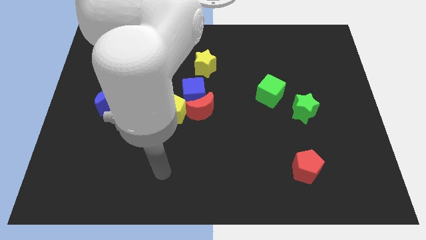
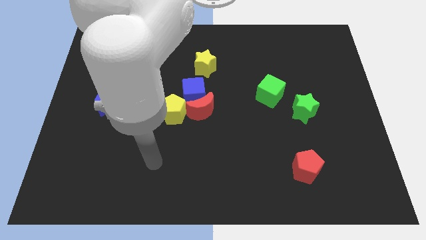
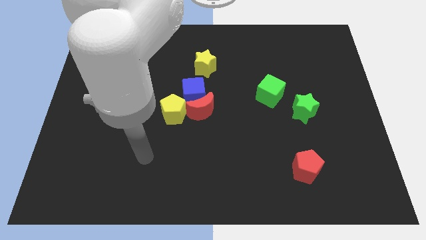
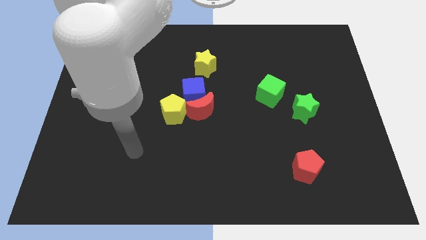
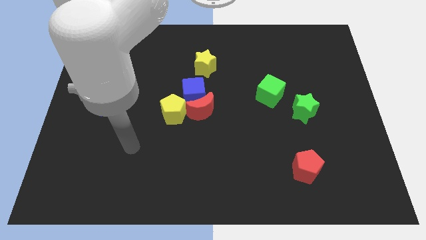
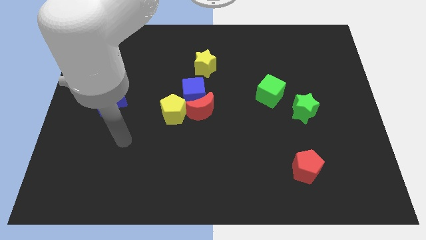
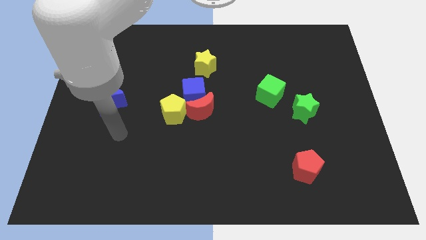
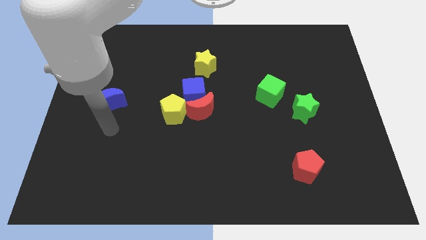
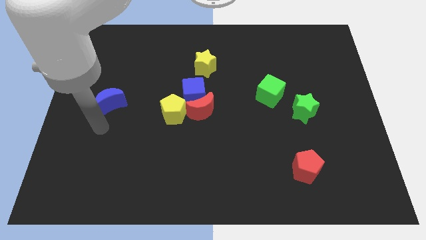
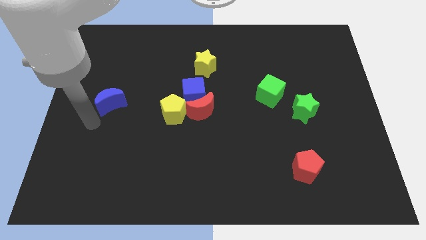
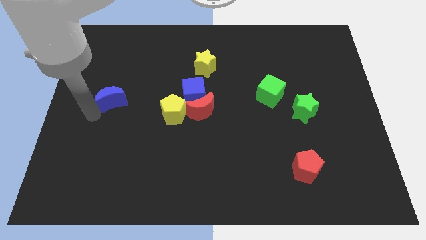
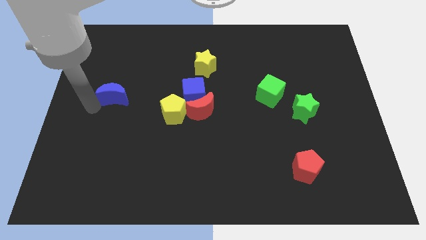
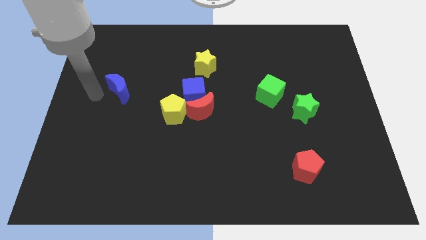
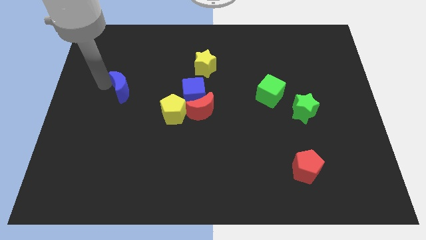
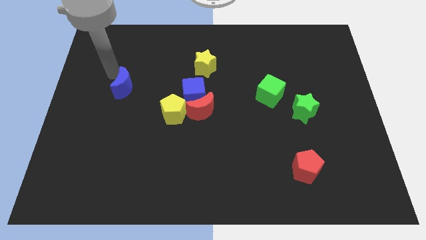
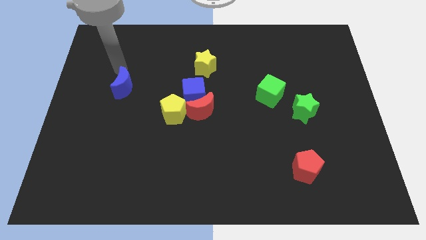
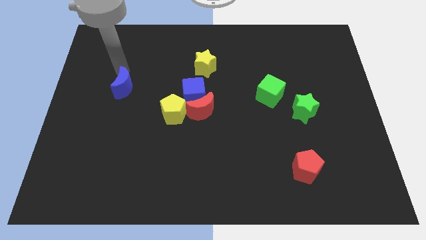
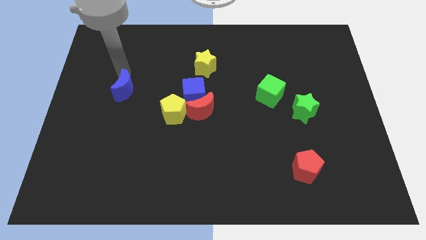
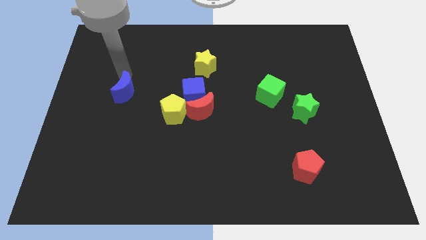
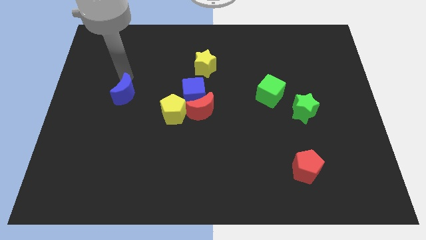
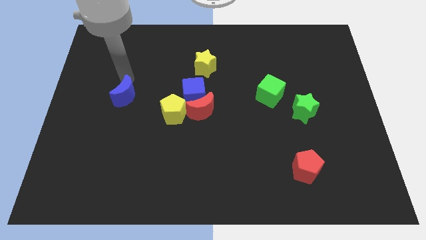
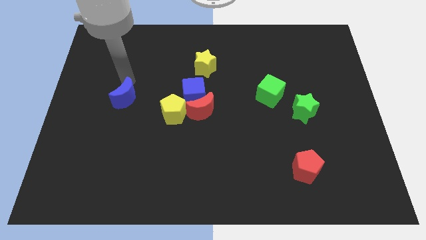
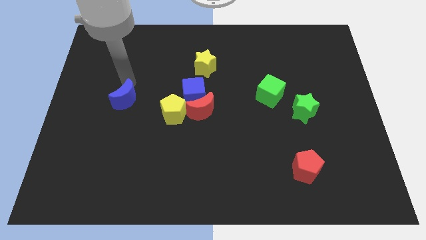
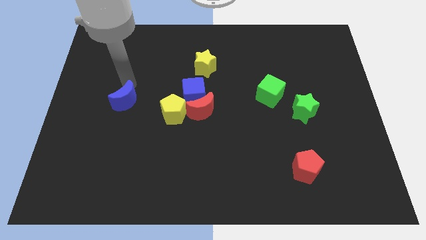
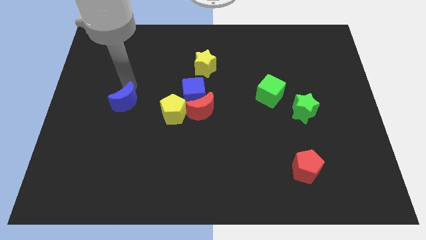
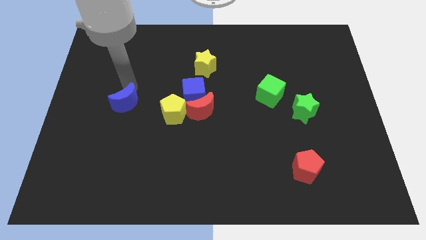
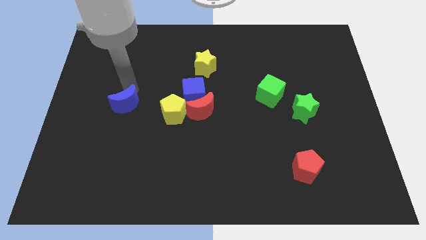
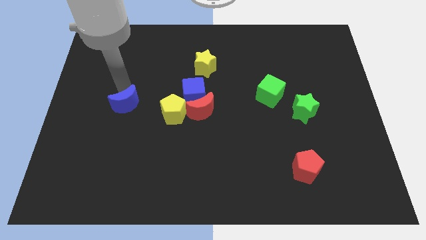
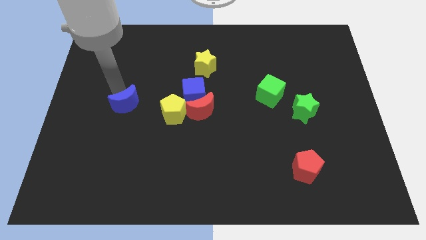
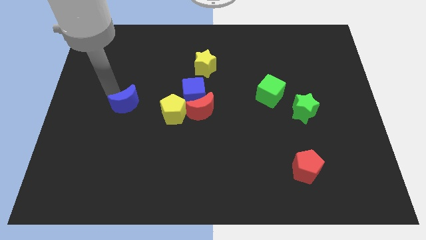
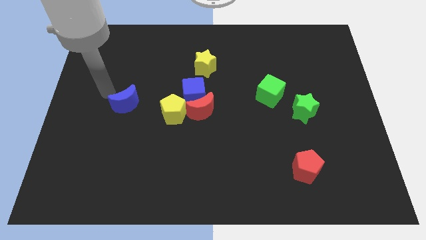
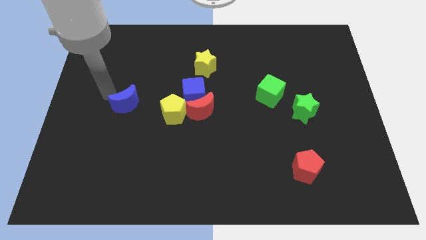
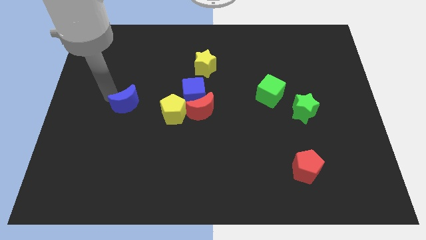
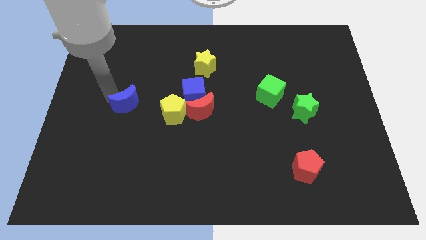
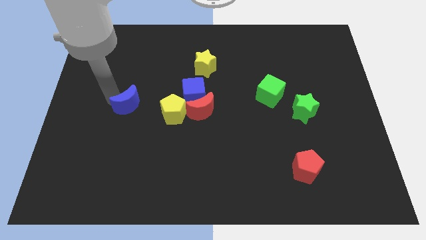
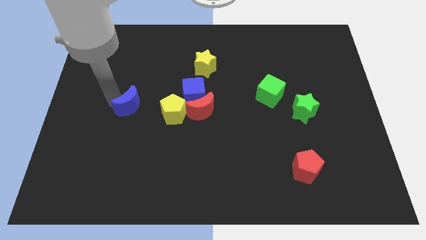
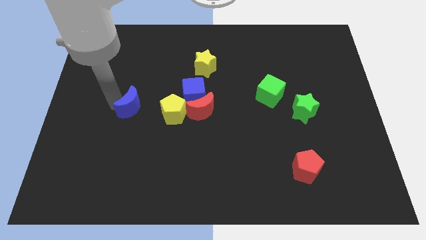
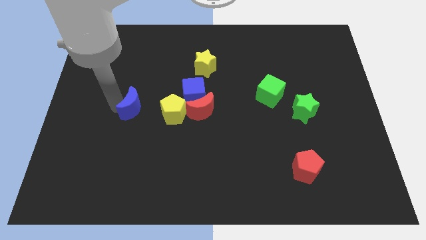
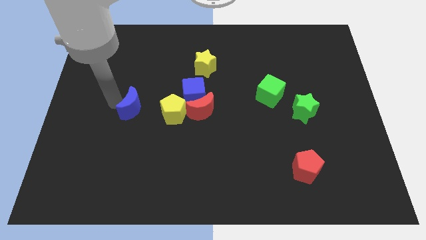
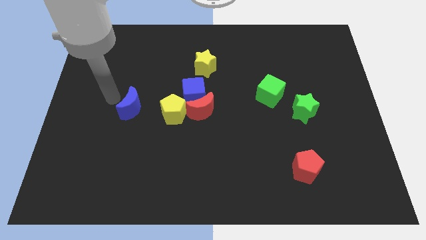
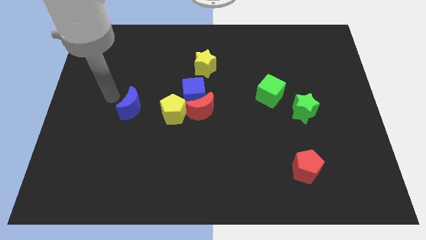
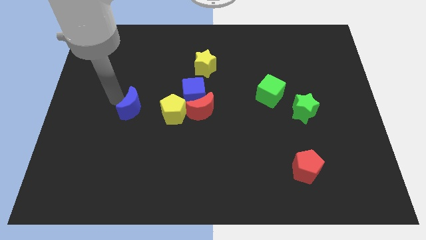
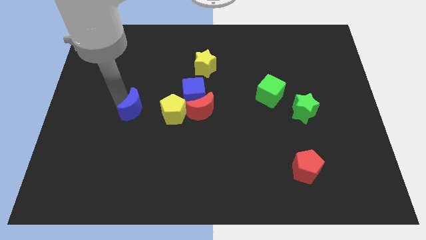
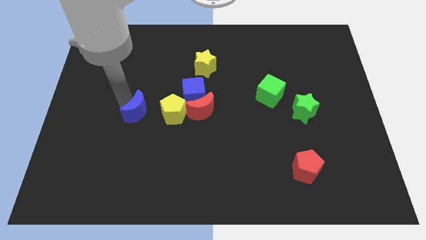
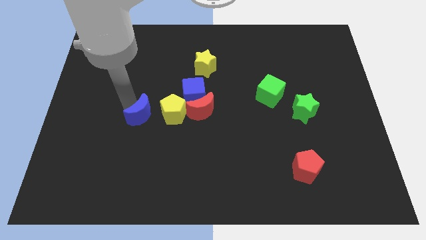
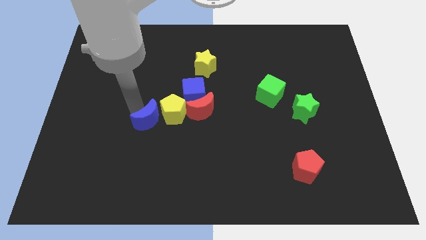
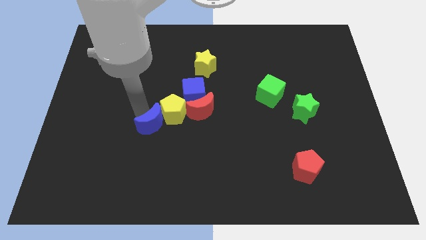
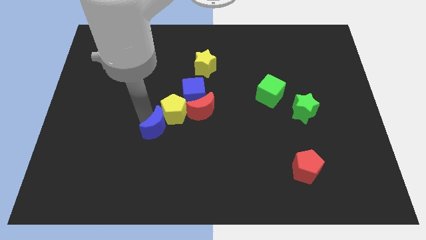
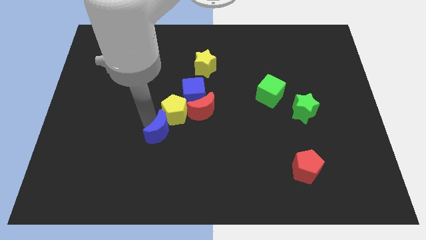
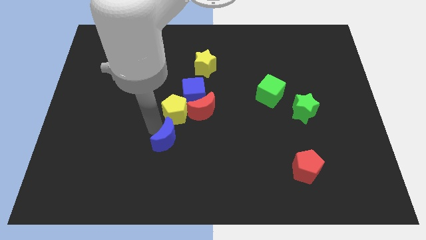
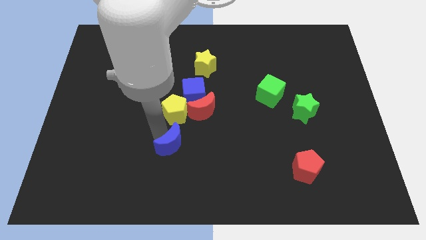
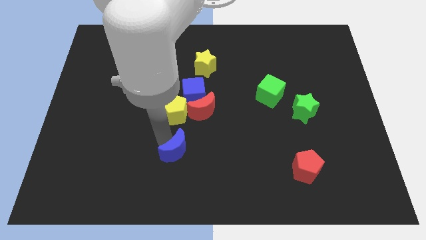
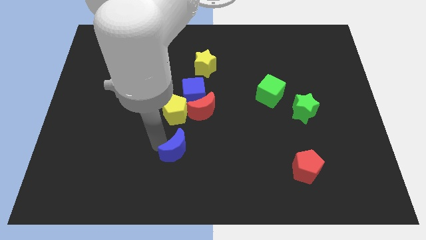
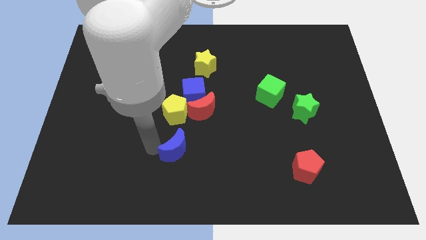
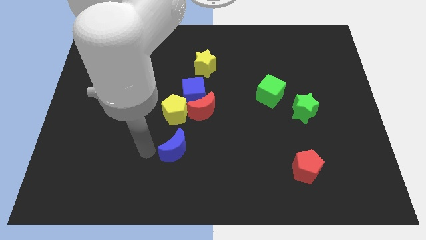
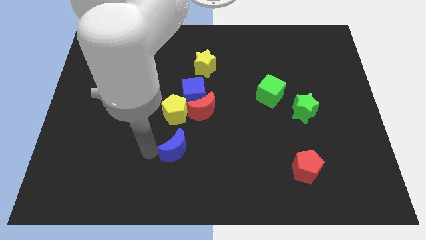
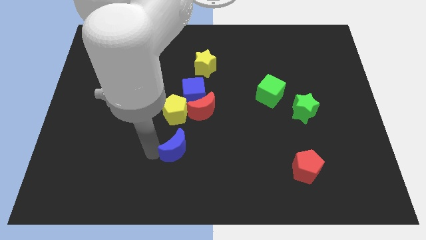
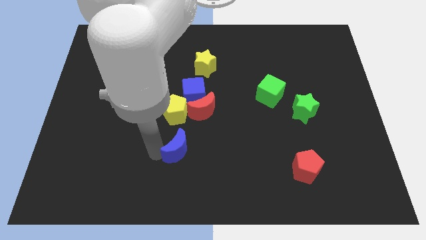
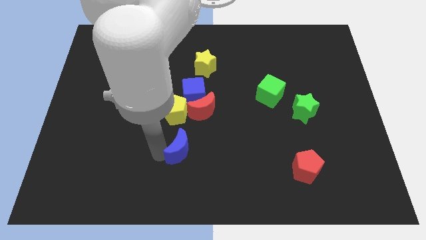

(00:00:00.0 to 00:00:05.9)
move the blue moon below the red moon

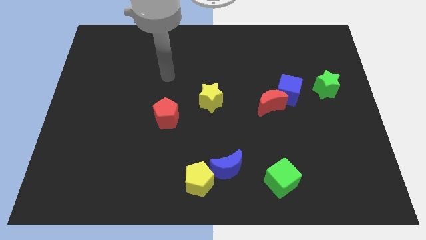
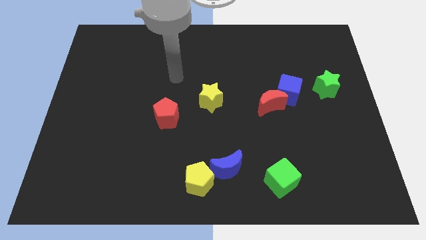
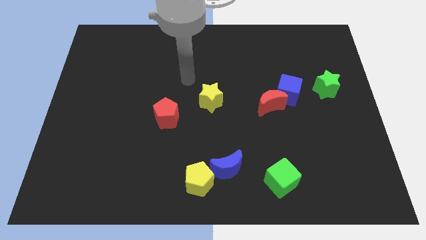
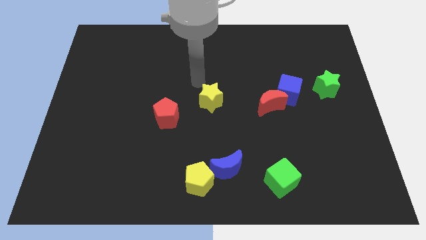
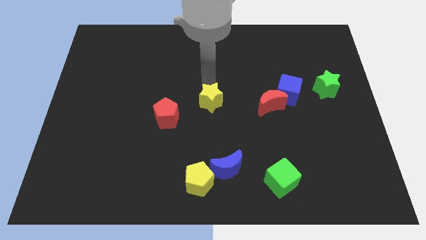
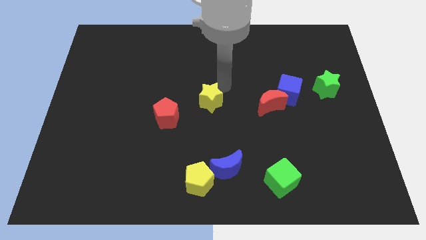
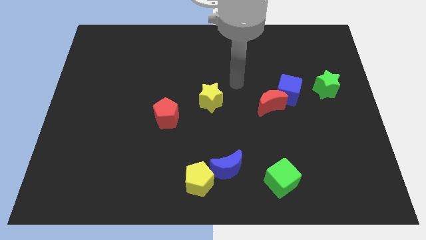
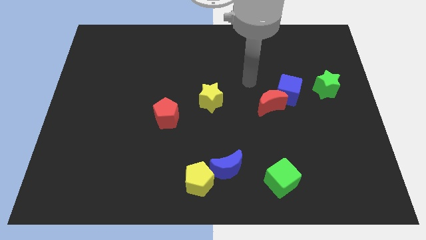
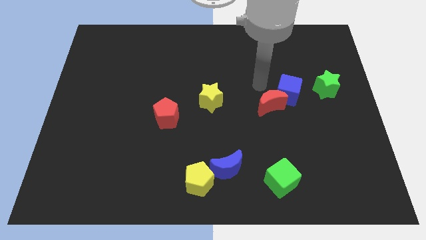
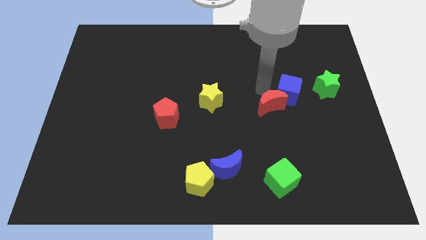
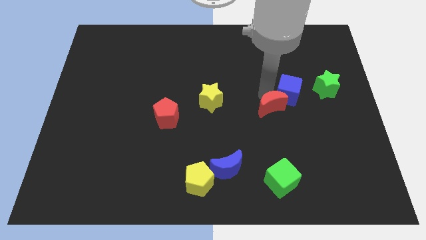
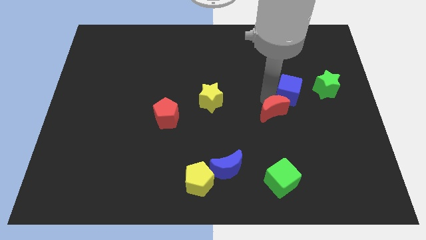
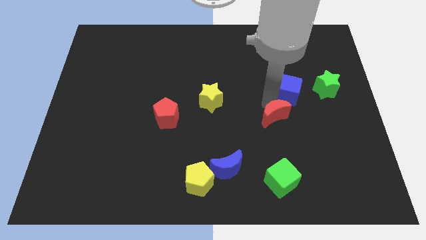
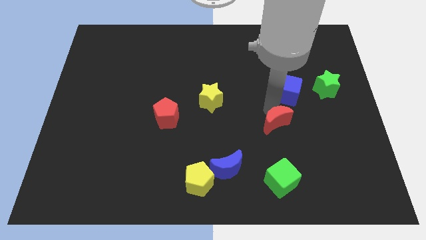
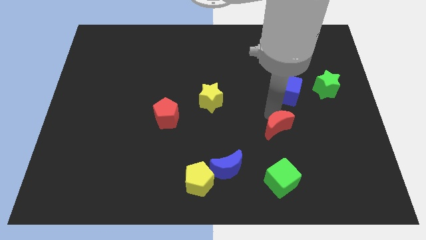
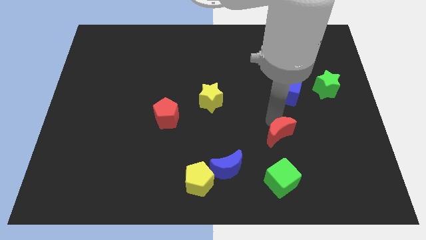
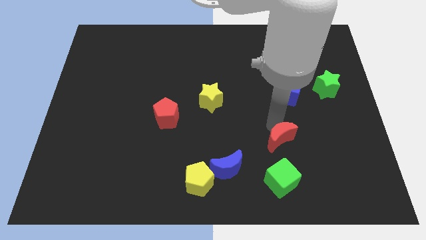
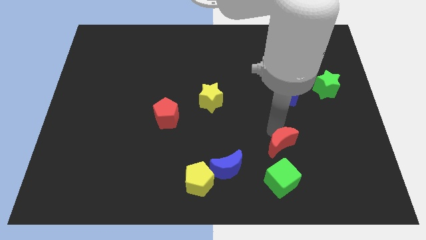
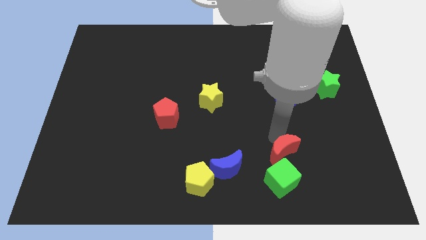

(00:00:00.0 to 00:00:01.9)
slide the red moon right of the blue moon
